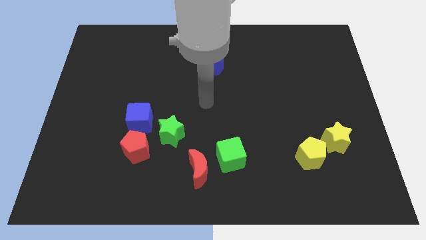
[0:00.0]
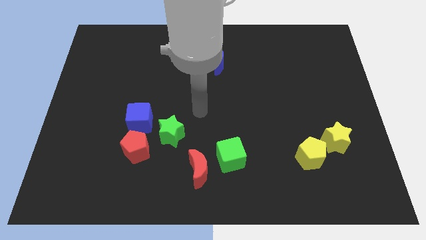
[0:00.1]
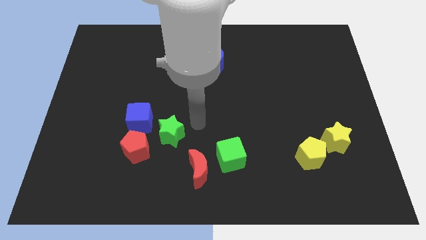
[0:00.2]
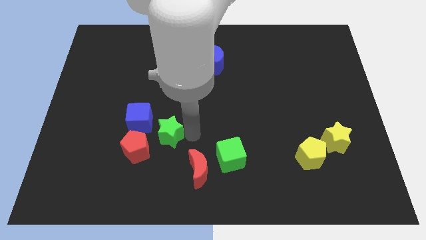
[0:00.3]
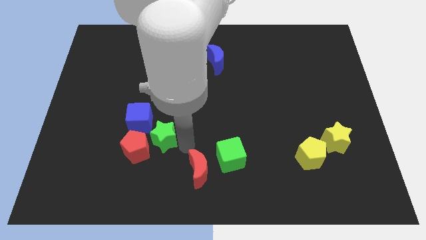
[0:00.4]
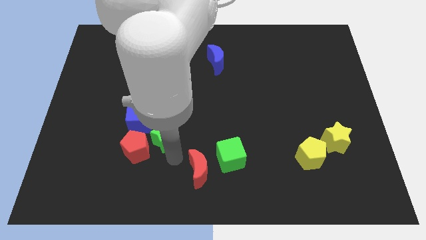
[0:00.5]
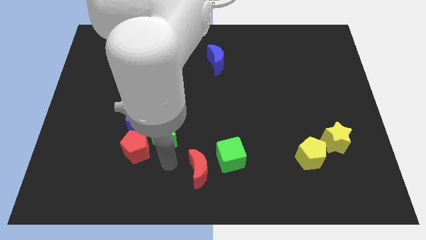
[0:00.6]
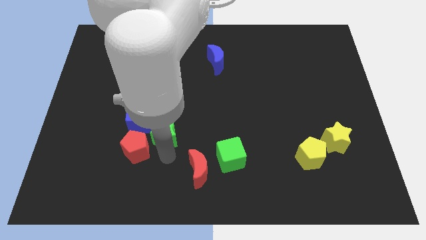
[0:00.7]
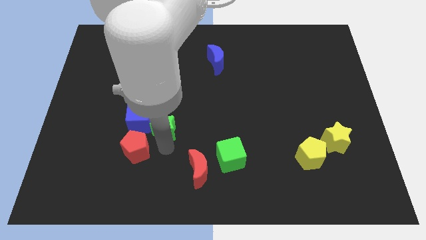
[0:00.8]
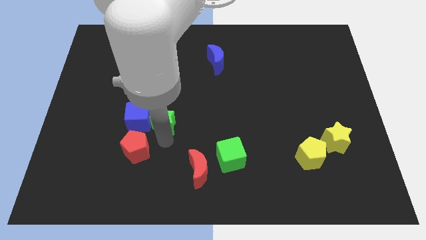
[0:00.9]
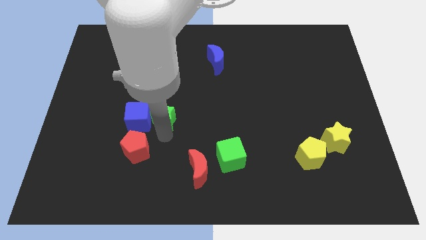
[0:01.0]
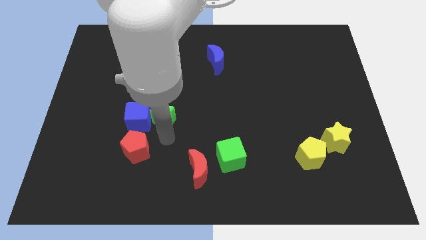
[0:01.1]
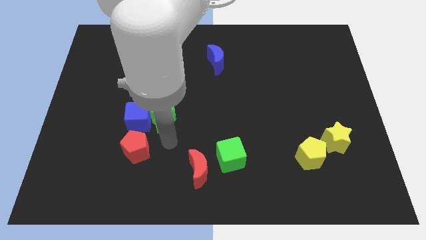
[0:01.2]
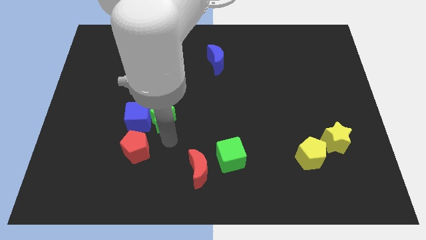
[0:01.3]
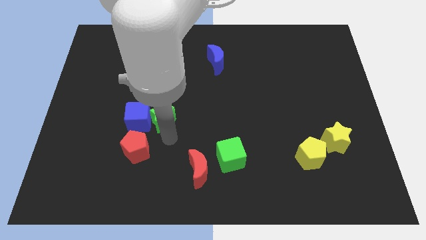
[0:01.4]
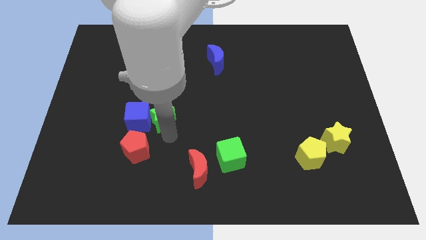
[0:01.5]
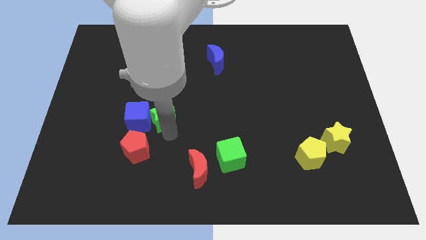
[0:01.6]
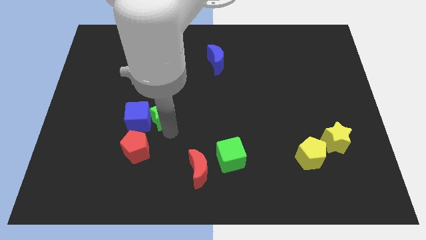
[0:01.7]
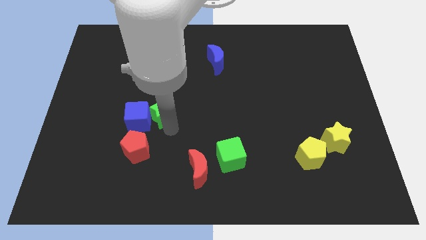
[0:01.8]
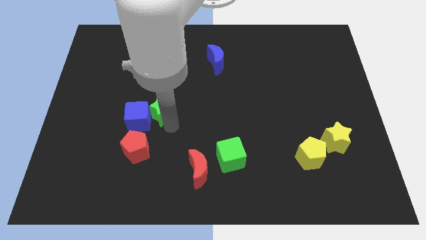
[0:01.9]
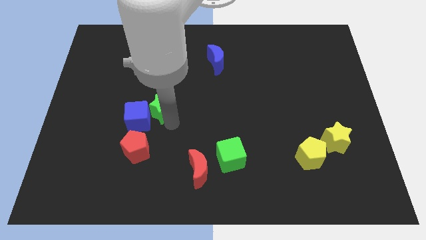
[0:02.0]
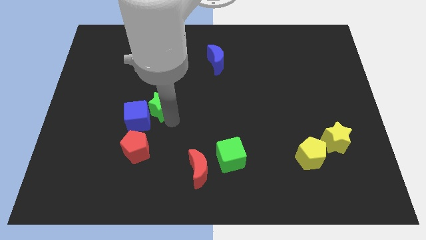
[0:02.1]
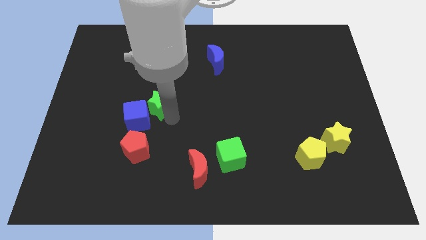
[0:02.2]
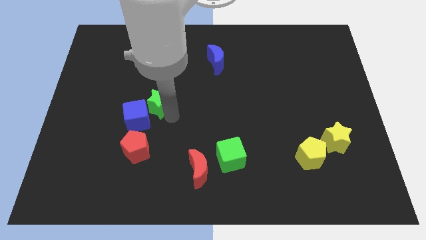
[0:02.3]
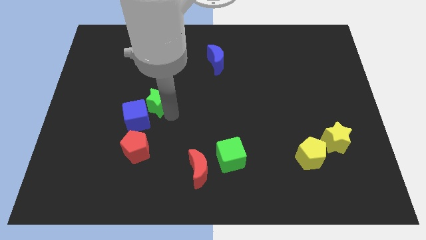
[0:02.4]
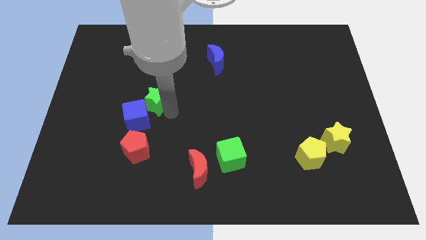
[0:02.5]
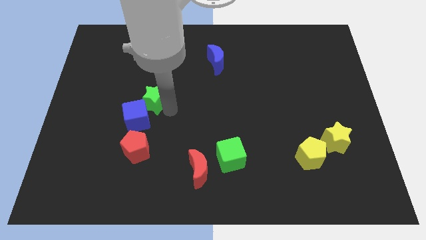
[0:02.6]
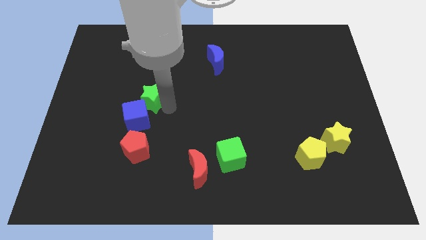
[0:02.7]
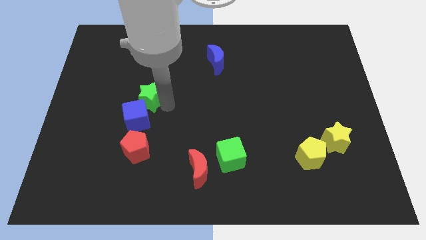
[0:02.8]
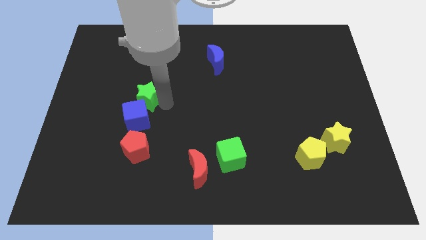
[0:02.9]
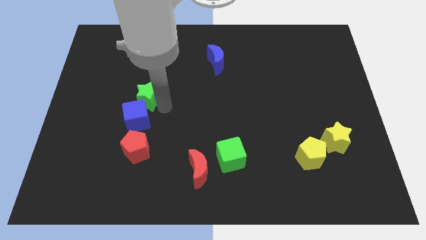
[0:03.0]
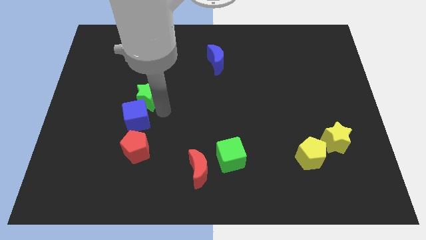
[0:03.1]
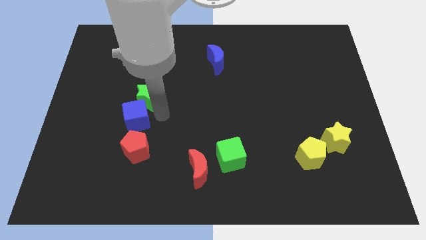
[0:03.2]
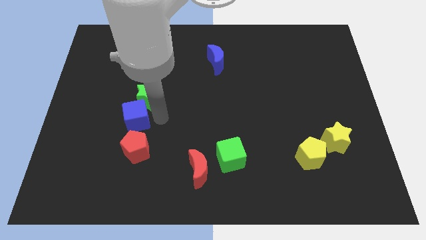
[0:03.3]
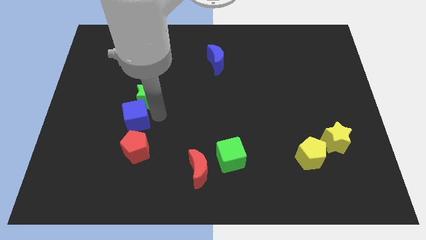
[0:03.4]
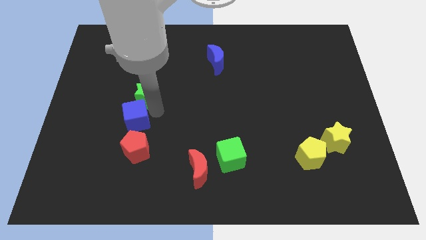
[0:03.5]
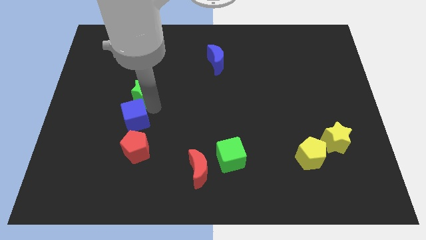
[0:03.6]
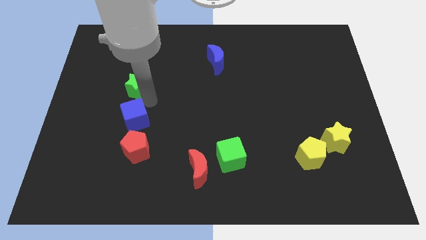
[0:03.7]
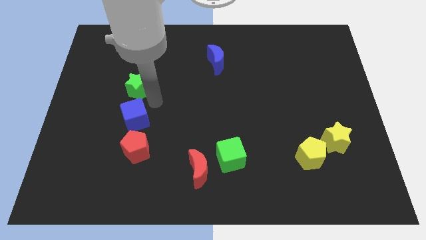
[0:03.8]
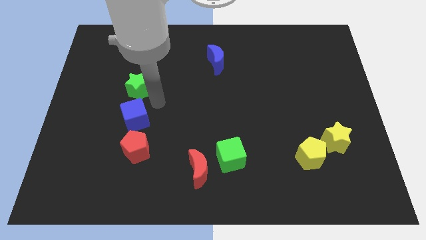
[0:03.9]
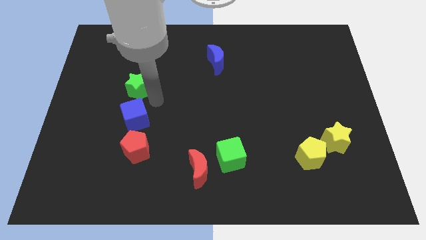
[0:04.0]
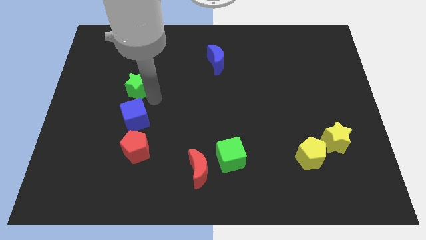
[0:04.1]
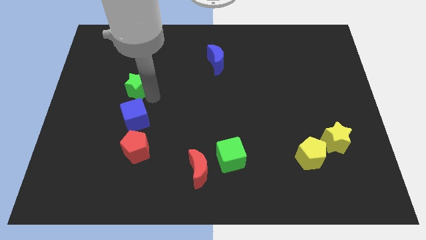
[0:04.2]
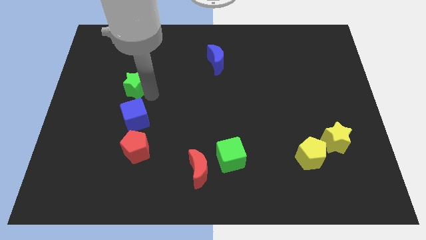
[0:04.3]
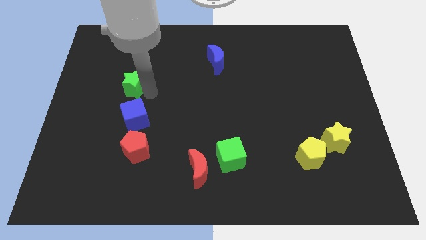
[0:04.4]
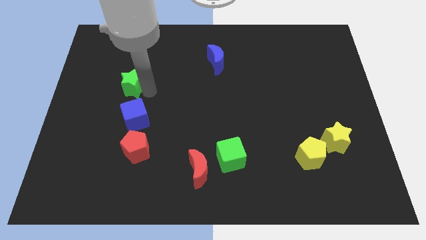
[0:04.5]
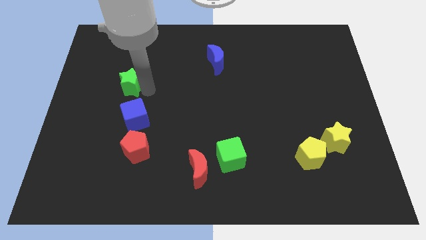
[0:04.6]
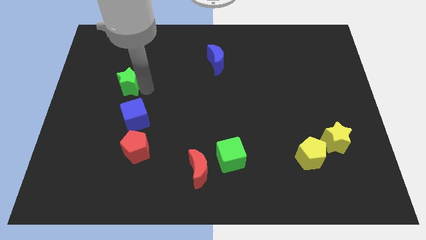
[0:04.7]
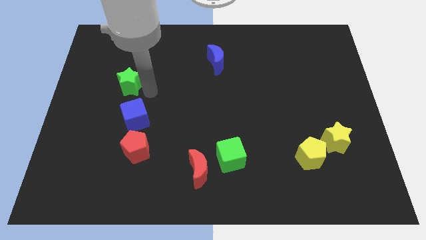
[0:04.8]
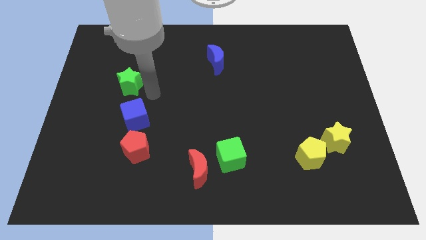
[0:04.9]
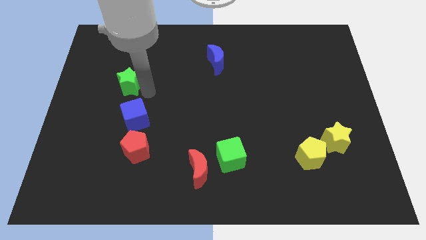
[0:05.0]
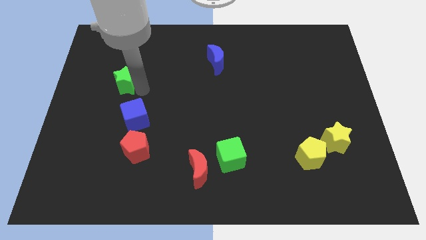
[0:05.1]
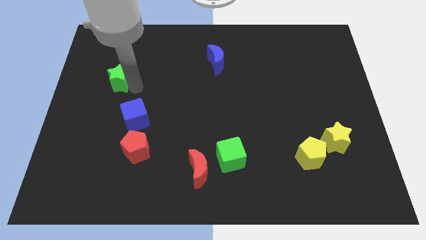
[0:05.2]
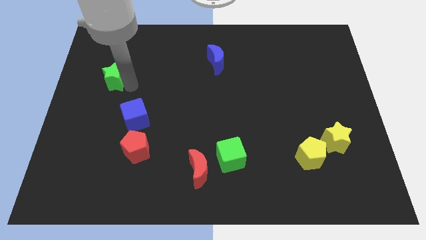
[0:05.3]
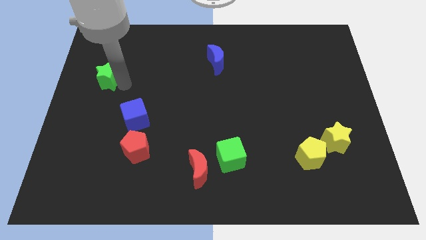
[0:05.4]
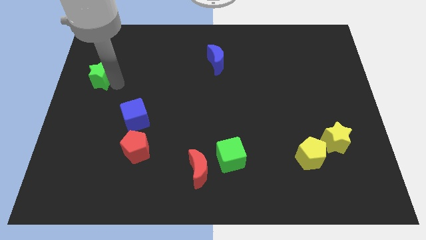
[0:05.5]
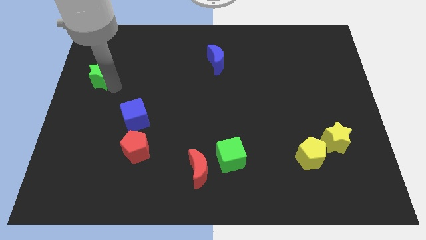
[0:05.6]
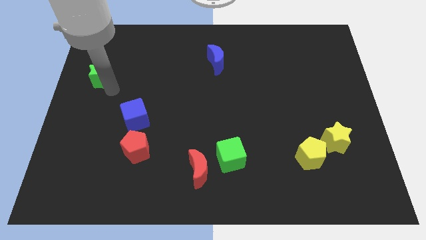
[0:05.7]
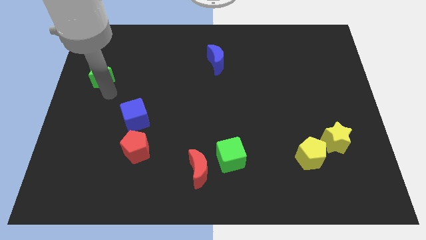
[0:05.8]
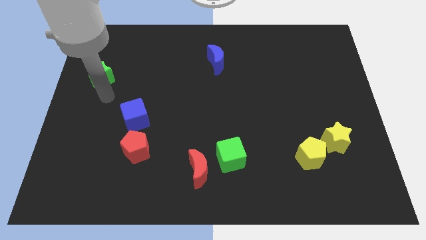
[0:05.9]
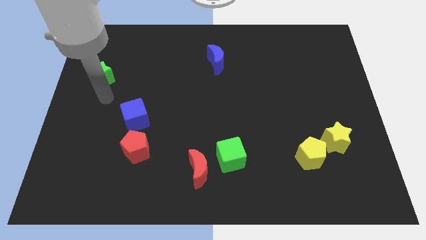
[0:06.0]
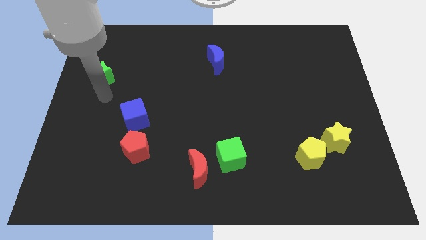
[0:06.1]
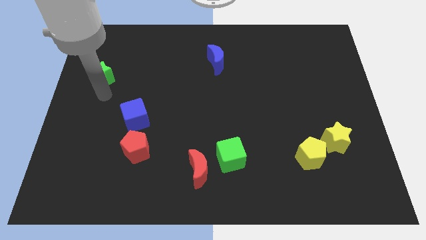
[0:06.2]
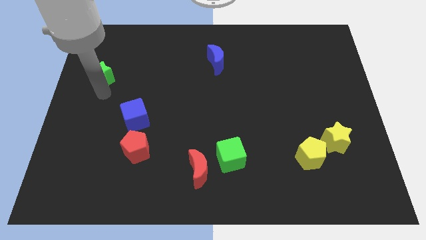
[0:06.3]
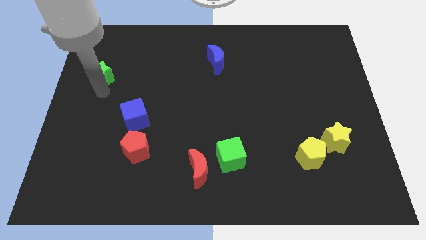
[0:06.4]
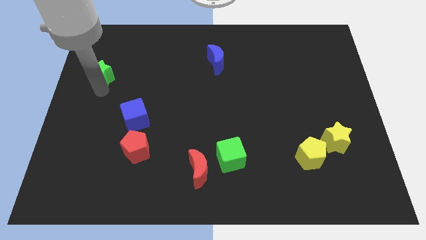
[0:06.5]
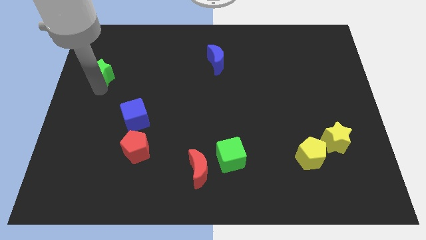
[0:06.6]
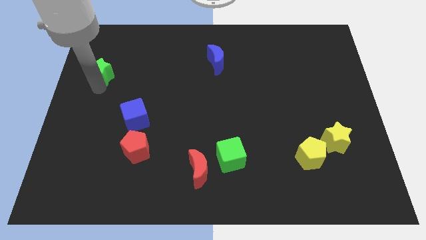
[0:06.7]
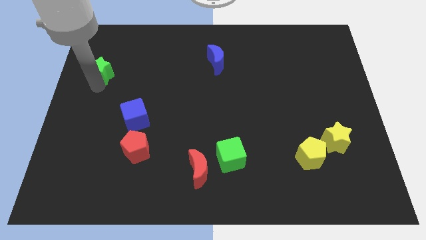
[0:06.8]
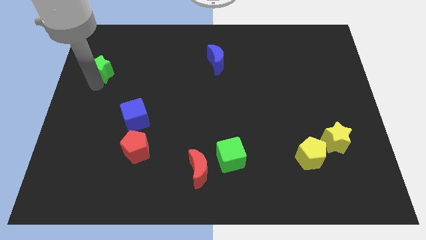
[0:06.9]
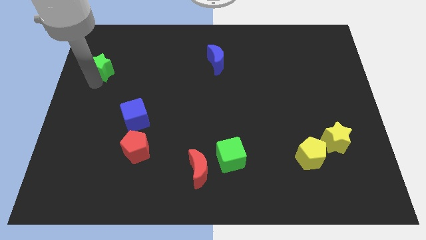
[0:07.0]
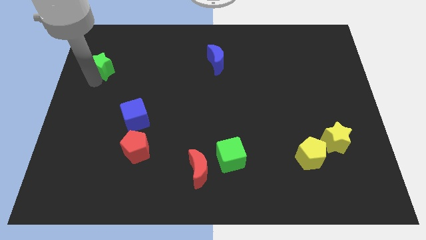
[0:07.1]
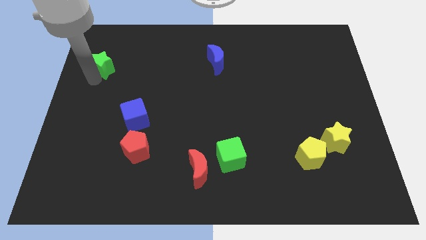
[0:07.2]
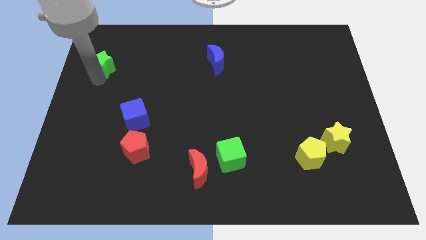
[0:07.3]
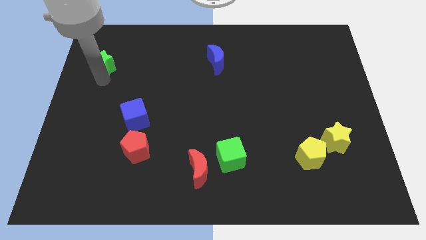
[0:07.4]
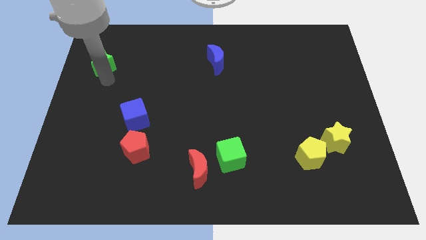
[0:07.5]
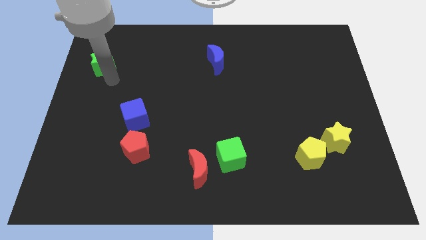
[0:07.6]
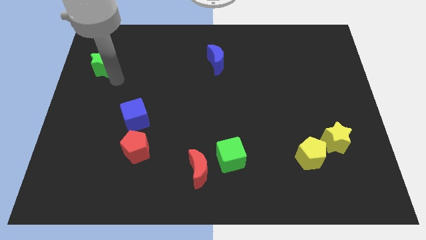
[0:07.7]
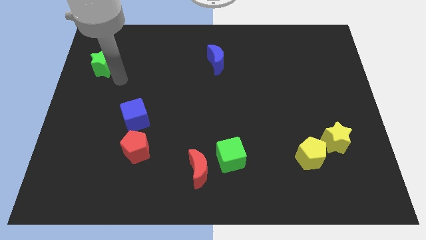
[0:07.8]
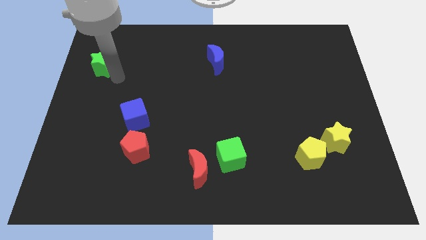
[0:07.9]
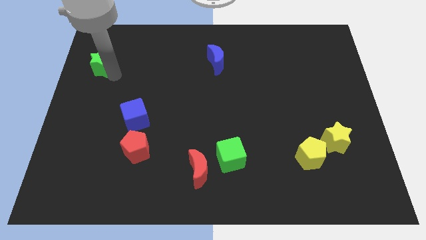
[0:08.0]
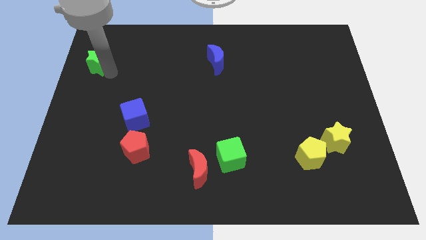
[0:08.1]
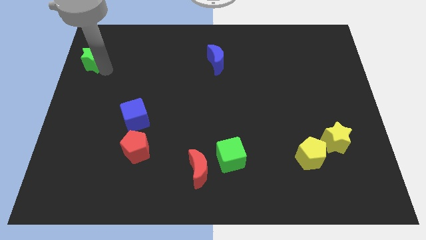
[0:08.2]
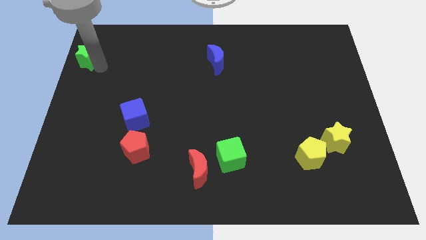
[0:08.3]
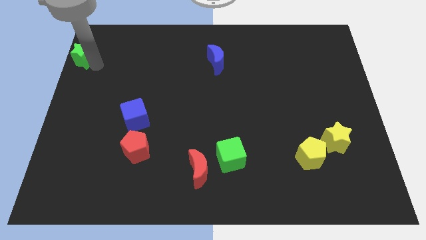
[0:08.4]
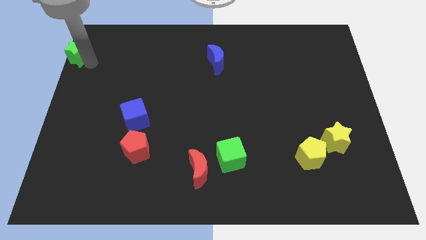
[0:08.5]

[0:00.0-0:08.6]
put the green star to the top left

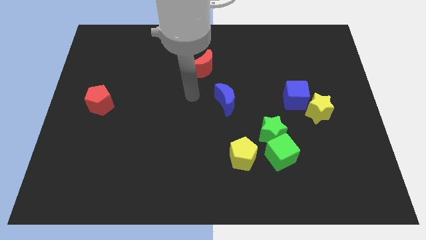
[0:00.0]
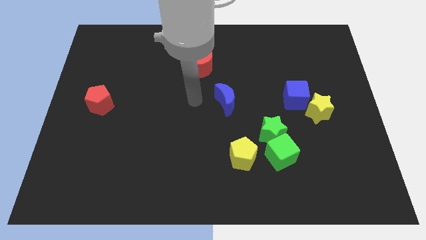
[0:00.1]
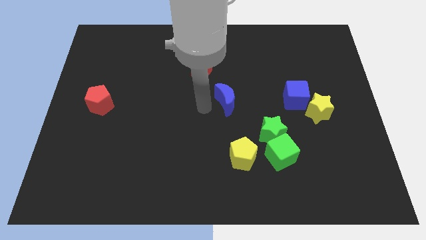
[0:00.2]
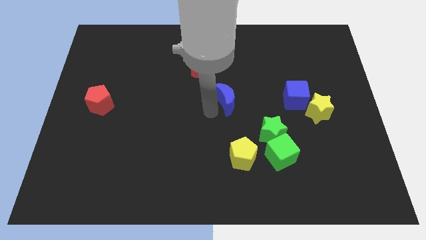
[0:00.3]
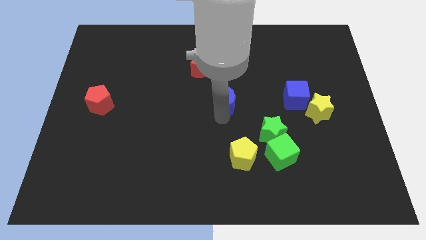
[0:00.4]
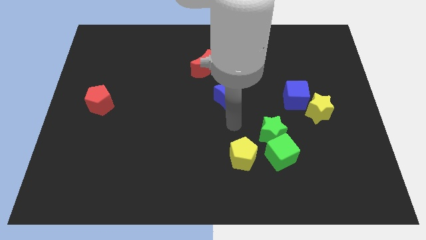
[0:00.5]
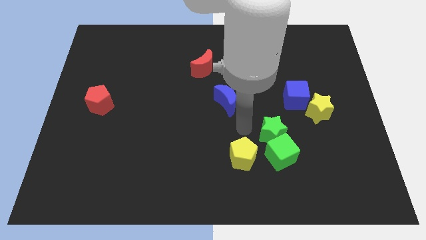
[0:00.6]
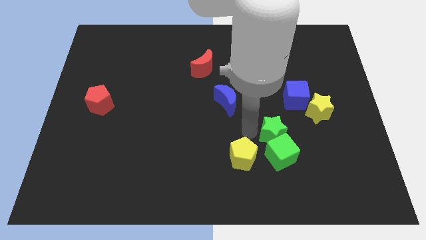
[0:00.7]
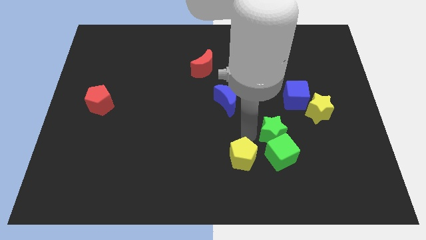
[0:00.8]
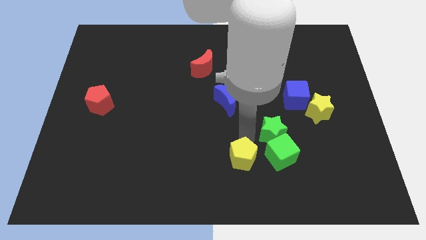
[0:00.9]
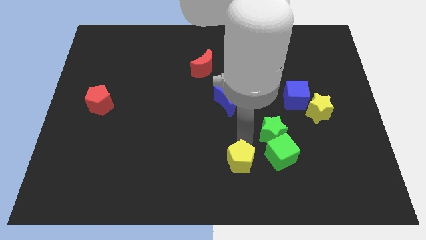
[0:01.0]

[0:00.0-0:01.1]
put the yellow pentagon to the bottom side
